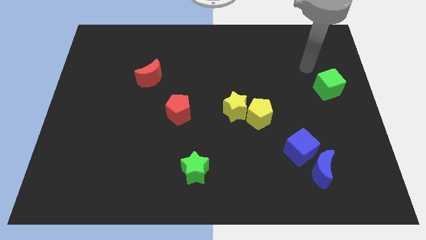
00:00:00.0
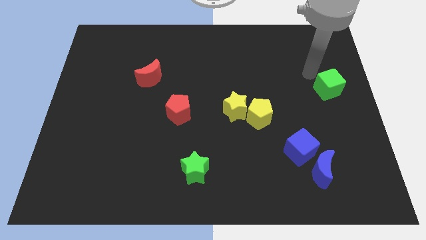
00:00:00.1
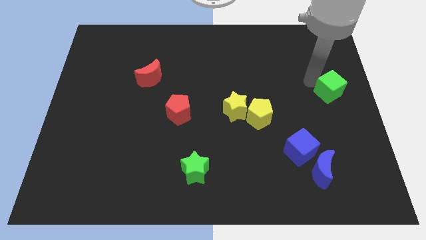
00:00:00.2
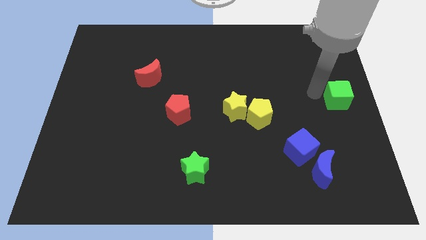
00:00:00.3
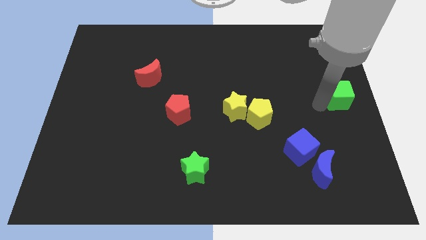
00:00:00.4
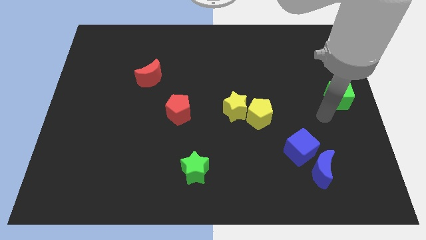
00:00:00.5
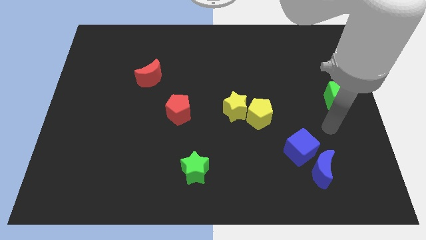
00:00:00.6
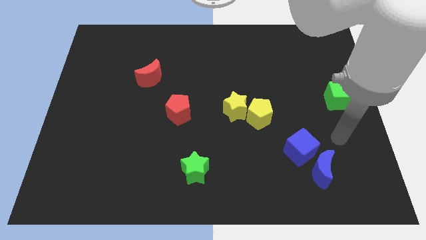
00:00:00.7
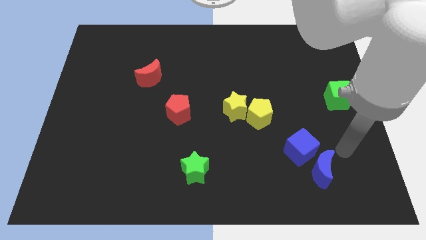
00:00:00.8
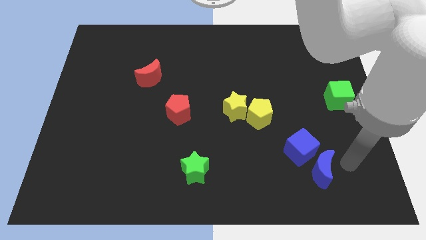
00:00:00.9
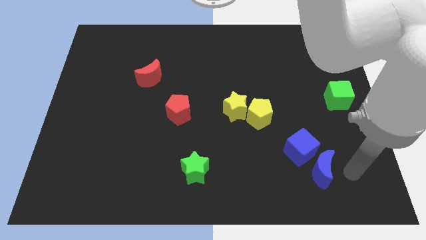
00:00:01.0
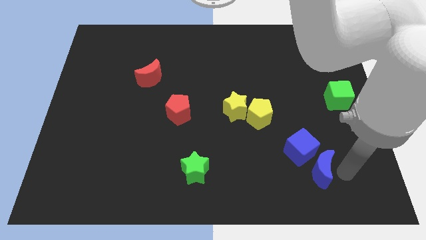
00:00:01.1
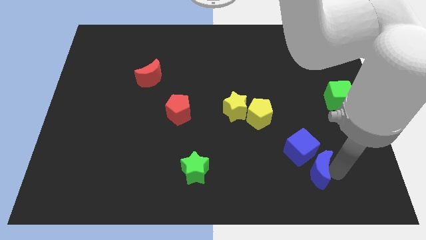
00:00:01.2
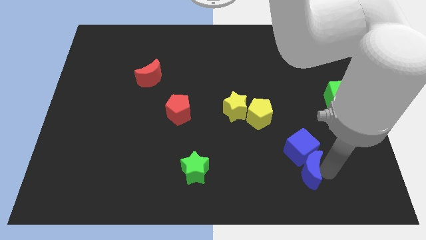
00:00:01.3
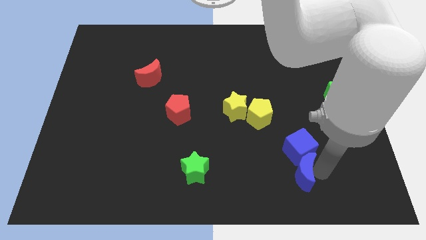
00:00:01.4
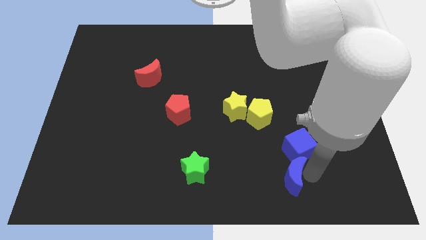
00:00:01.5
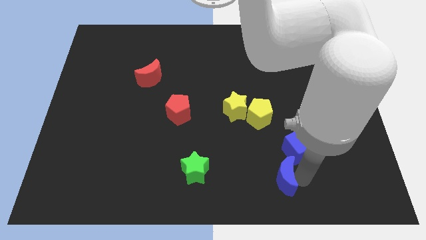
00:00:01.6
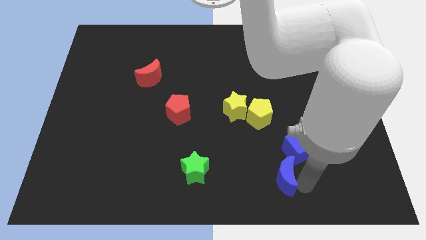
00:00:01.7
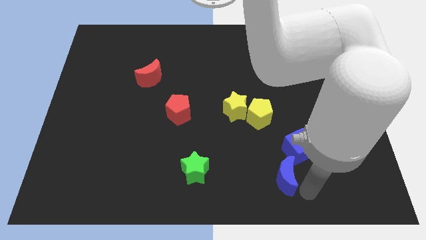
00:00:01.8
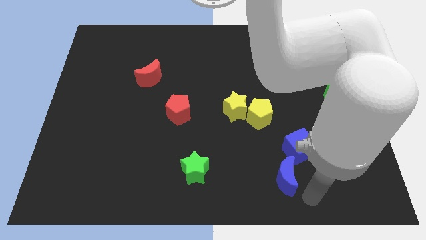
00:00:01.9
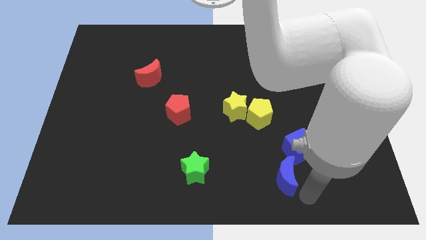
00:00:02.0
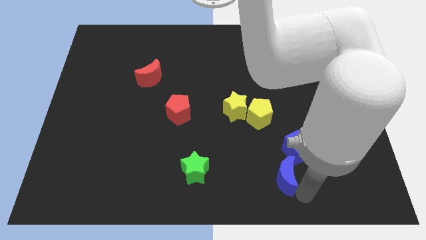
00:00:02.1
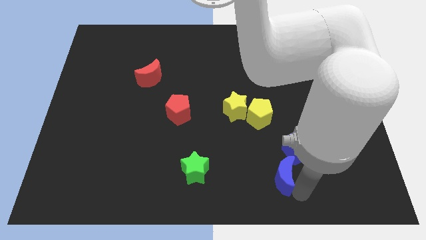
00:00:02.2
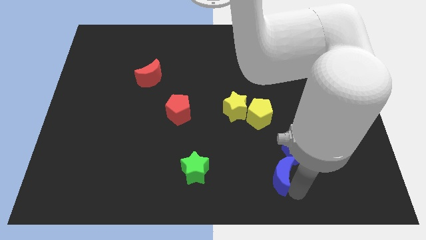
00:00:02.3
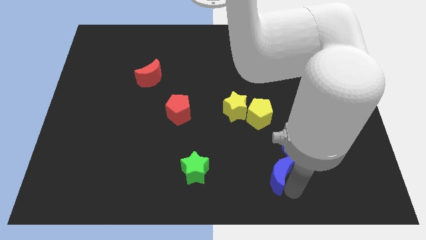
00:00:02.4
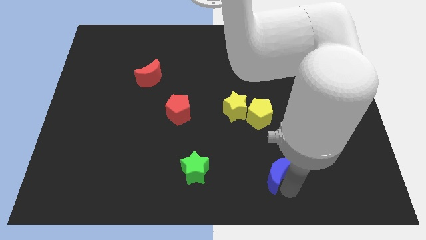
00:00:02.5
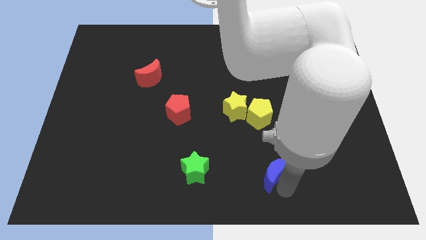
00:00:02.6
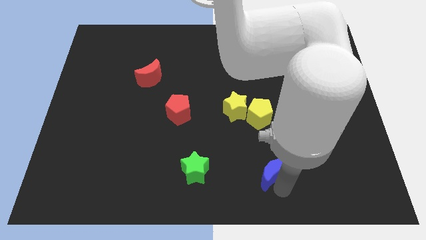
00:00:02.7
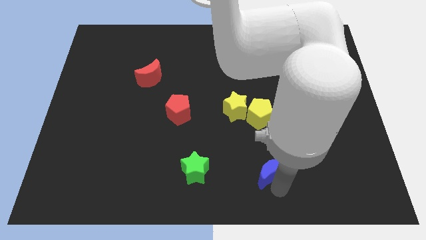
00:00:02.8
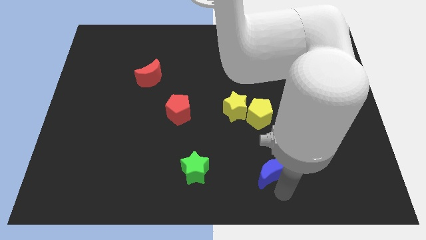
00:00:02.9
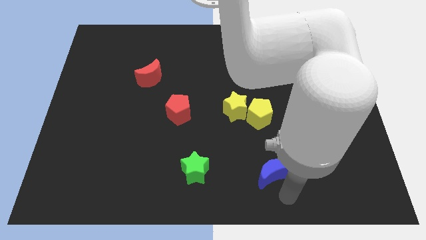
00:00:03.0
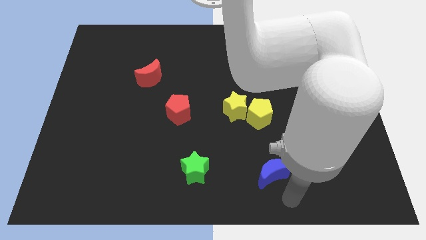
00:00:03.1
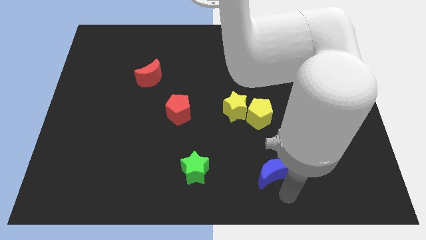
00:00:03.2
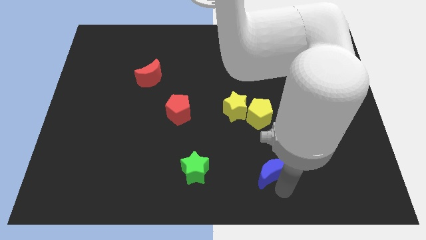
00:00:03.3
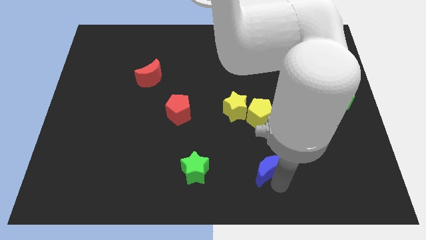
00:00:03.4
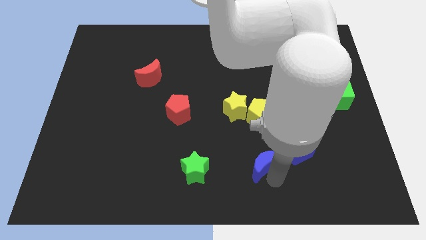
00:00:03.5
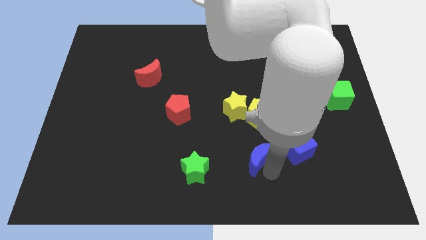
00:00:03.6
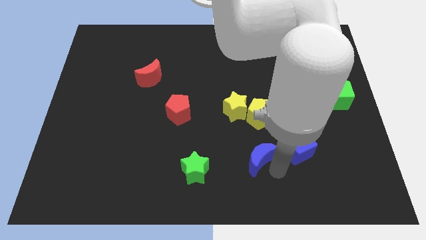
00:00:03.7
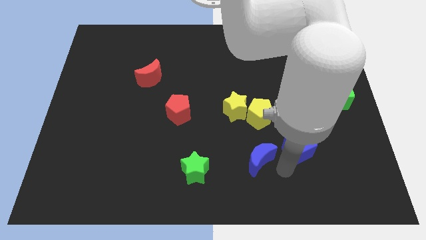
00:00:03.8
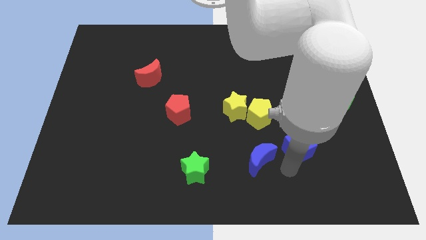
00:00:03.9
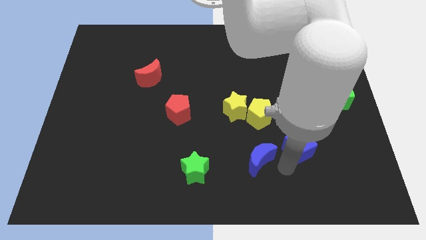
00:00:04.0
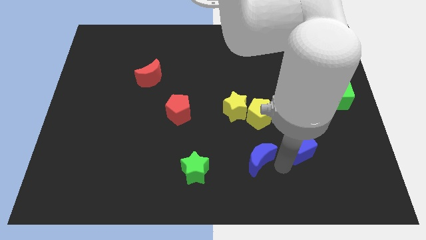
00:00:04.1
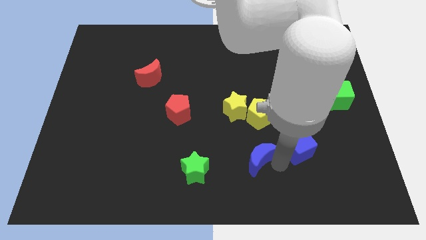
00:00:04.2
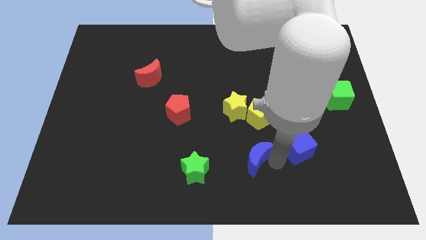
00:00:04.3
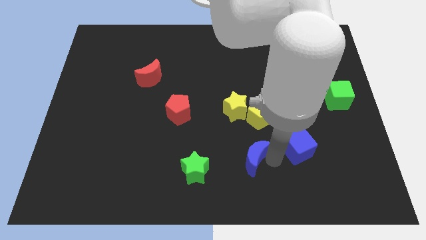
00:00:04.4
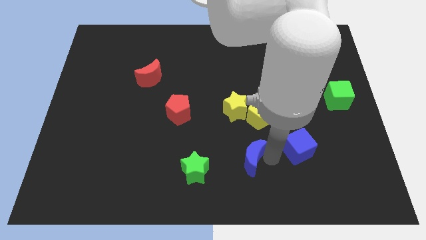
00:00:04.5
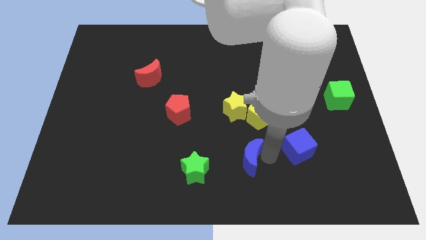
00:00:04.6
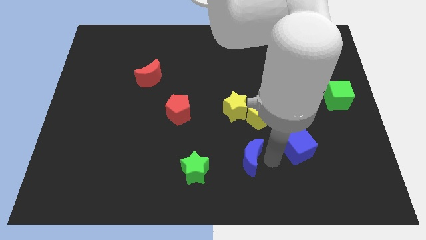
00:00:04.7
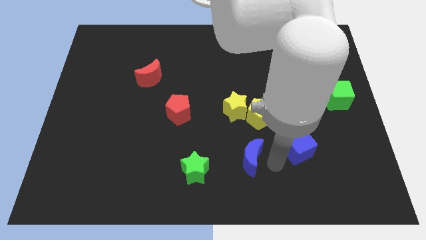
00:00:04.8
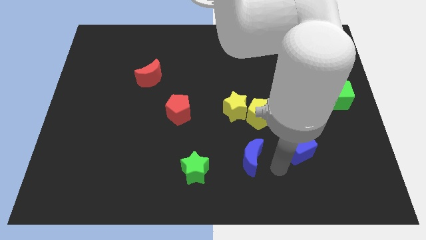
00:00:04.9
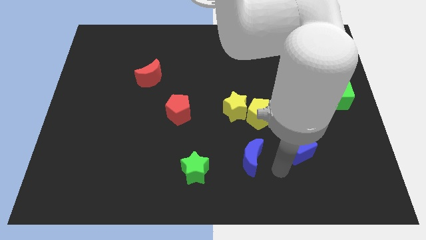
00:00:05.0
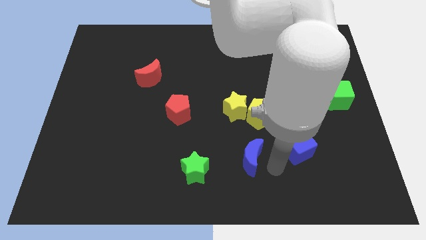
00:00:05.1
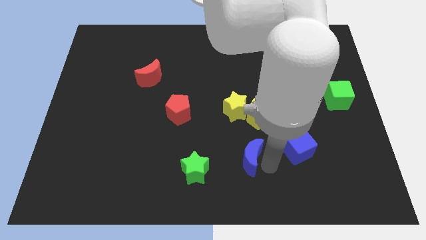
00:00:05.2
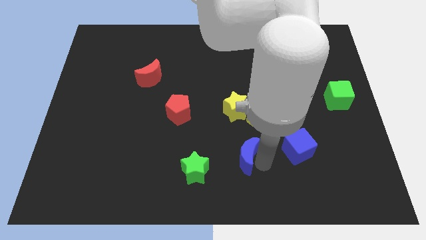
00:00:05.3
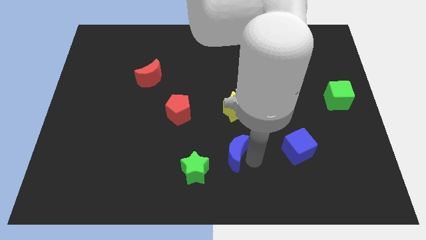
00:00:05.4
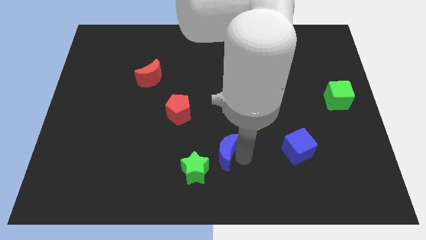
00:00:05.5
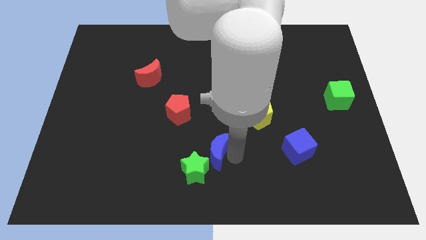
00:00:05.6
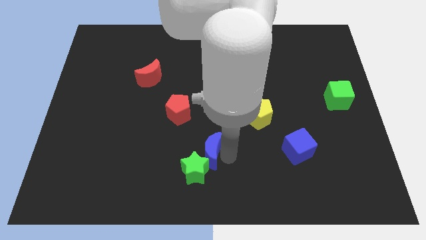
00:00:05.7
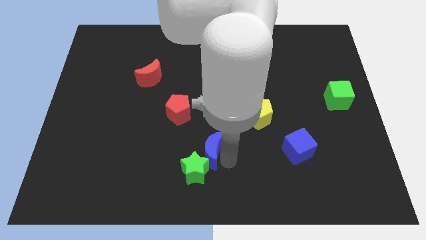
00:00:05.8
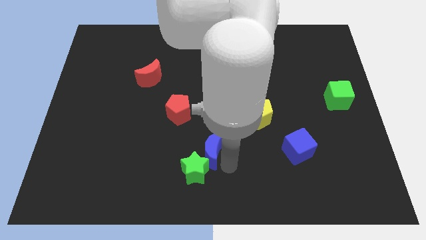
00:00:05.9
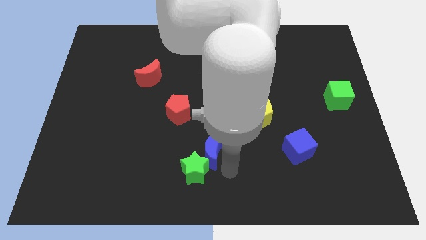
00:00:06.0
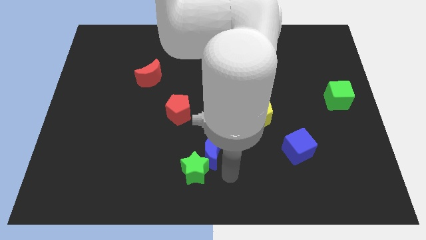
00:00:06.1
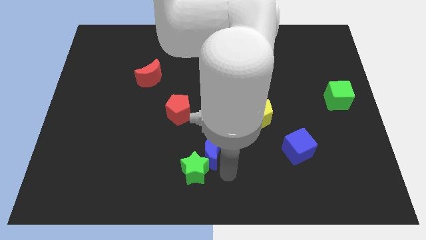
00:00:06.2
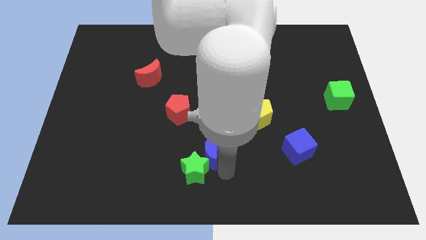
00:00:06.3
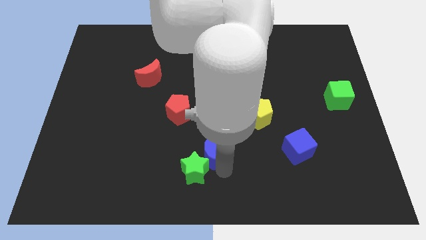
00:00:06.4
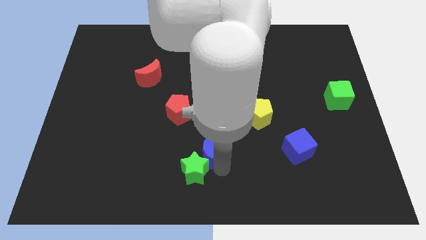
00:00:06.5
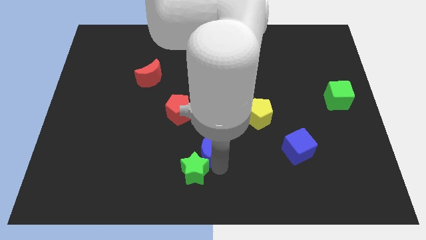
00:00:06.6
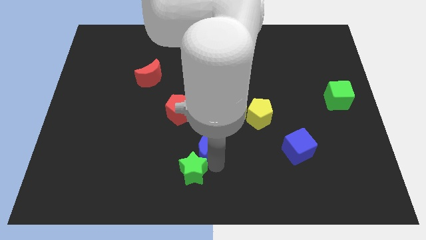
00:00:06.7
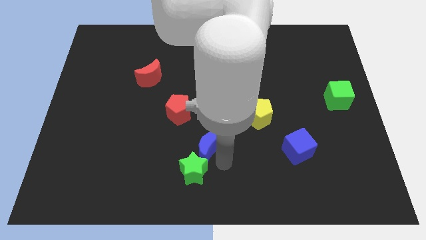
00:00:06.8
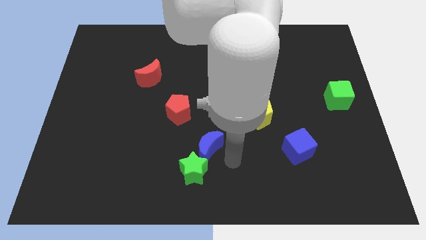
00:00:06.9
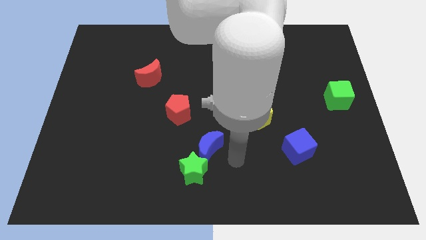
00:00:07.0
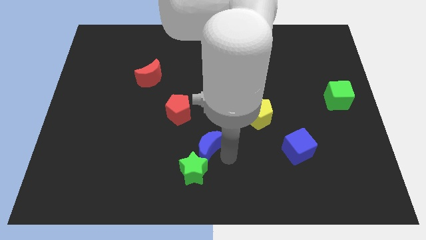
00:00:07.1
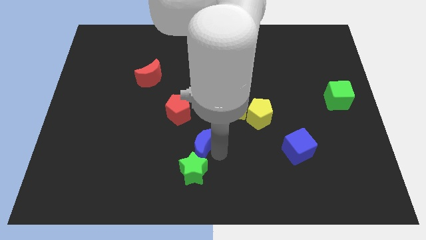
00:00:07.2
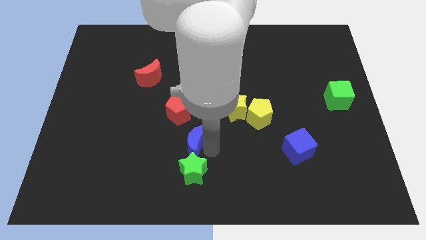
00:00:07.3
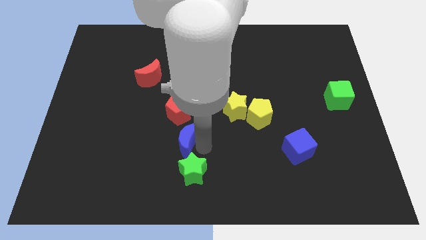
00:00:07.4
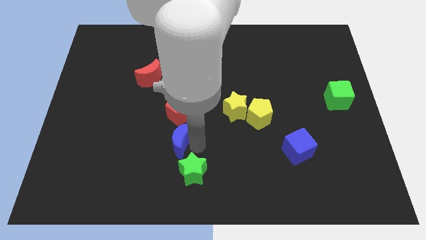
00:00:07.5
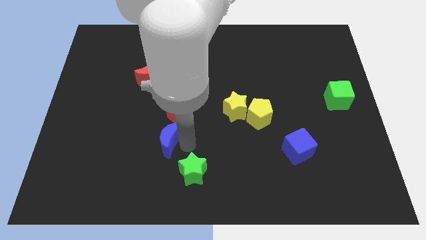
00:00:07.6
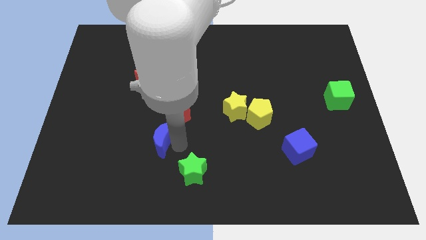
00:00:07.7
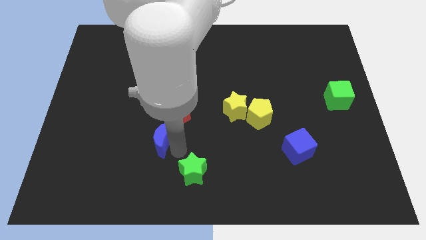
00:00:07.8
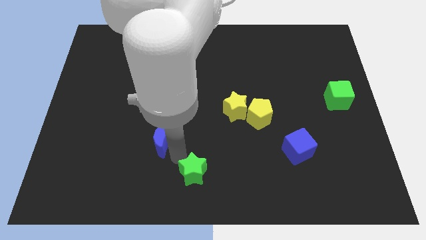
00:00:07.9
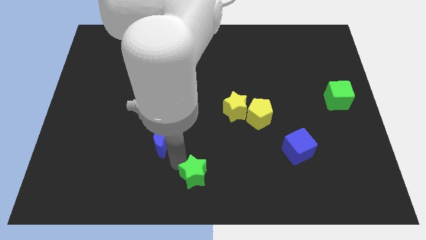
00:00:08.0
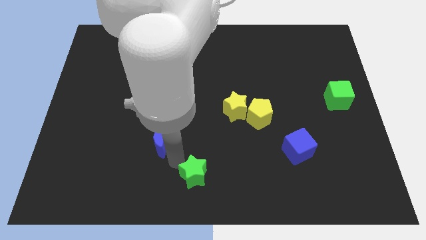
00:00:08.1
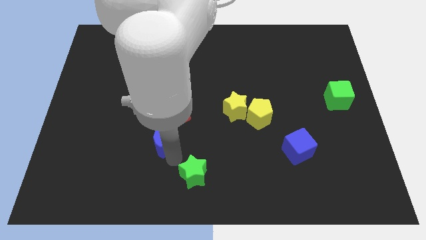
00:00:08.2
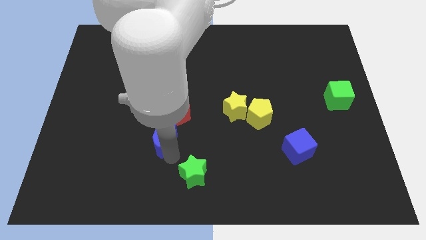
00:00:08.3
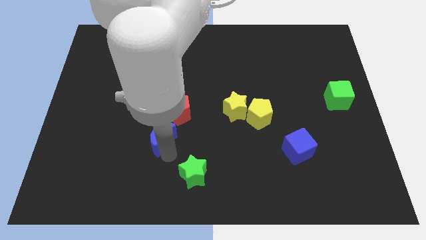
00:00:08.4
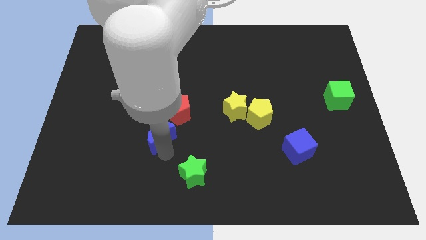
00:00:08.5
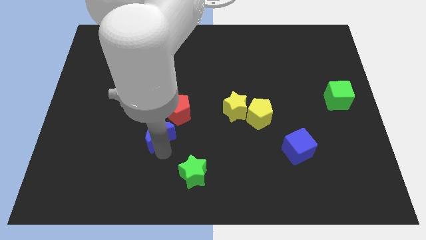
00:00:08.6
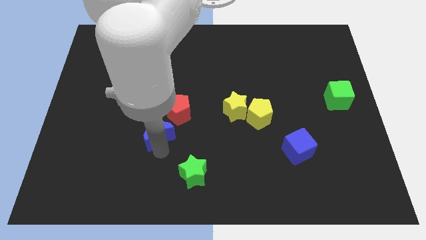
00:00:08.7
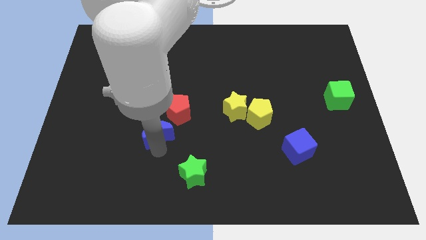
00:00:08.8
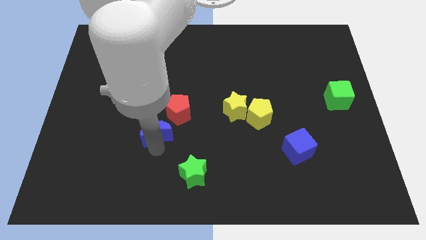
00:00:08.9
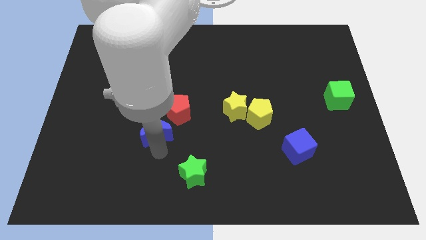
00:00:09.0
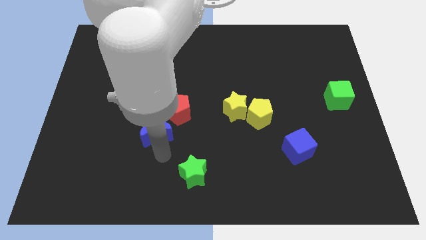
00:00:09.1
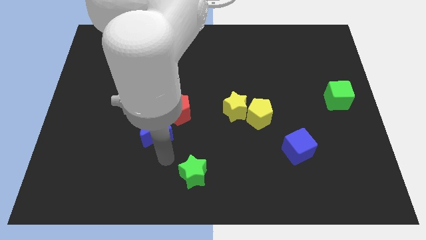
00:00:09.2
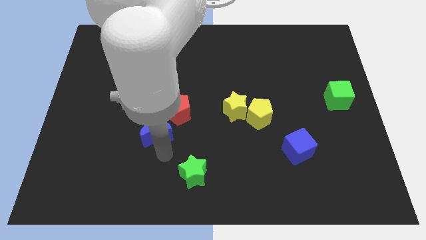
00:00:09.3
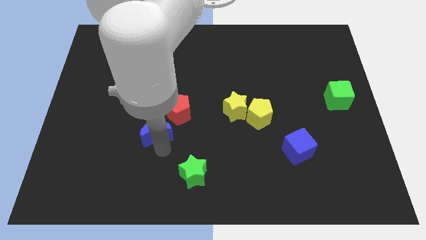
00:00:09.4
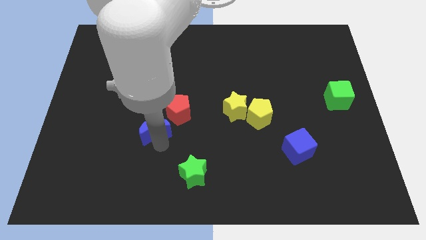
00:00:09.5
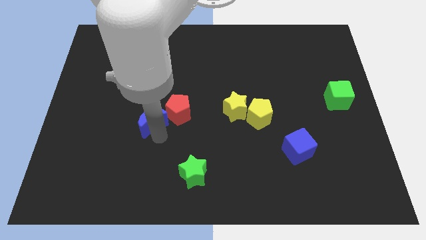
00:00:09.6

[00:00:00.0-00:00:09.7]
slide the blue moon just left of the red pentagon
